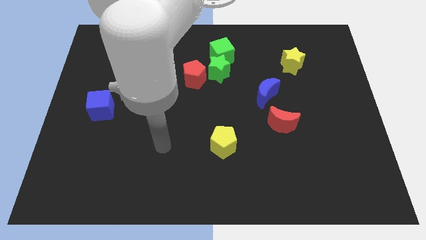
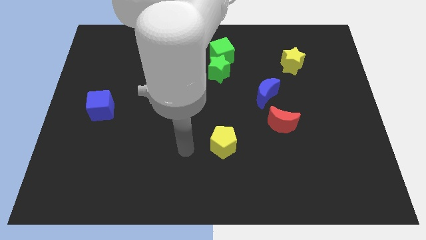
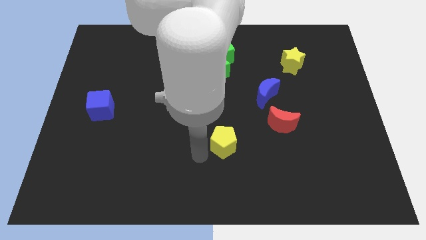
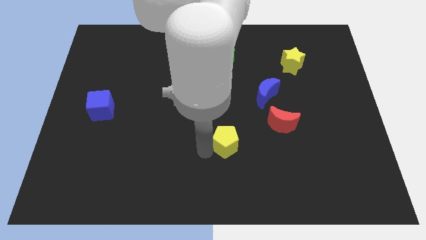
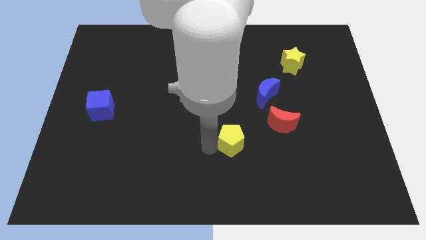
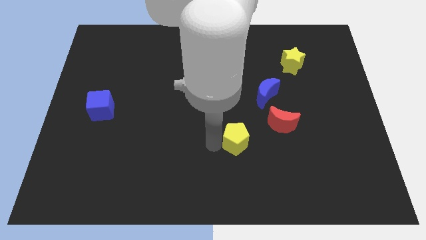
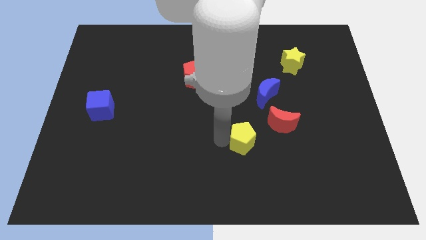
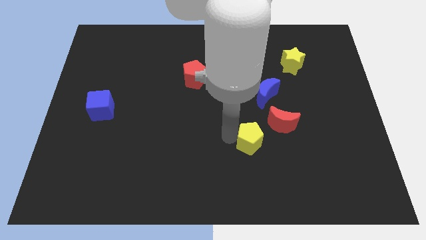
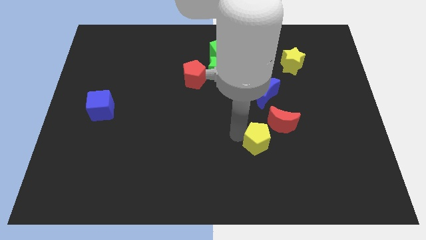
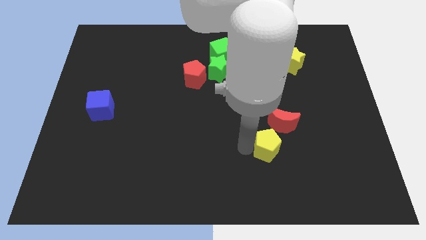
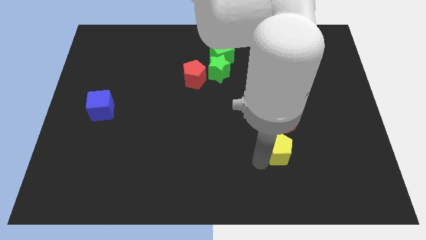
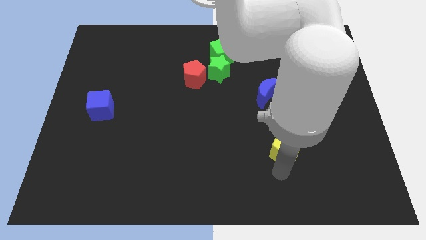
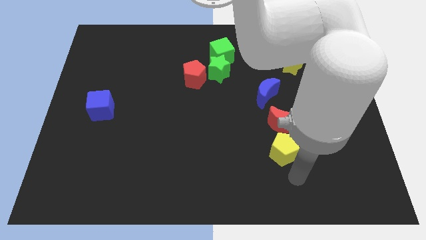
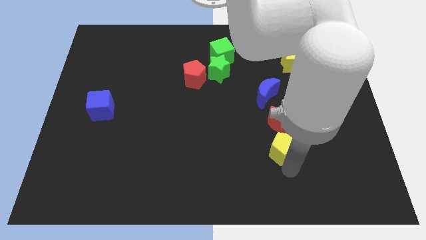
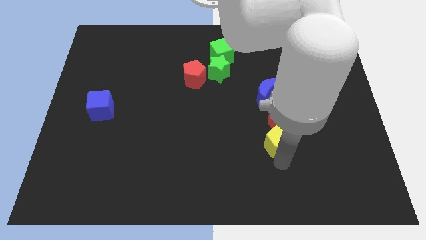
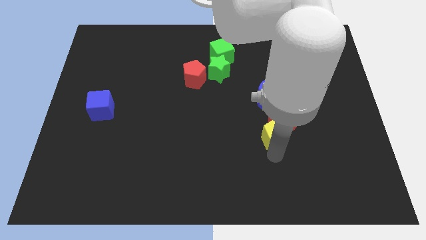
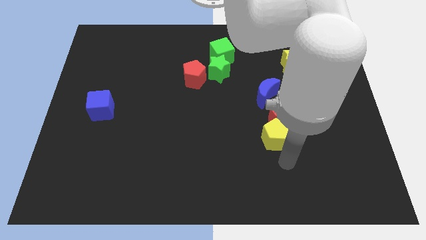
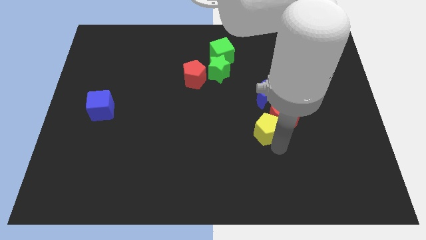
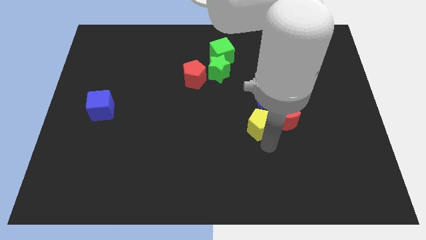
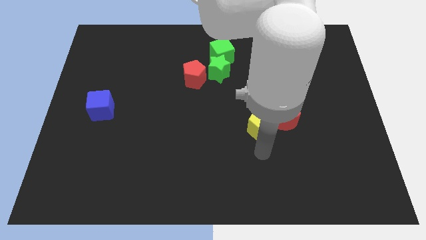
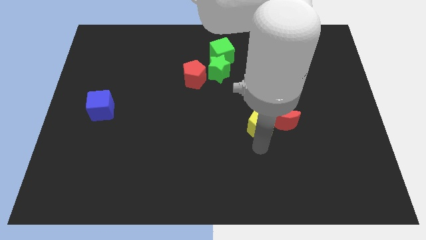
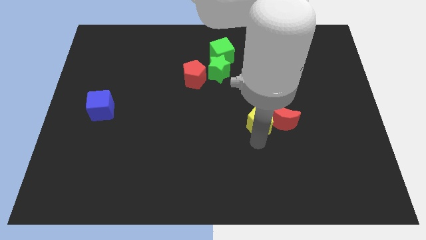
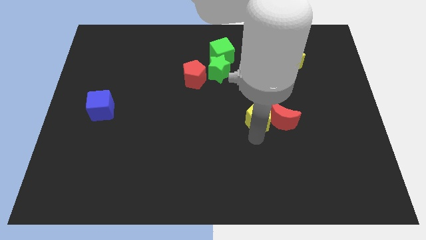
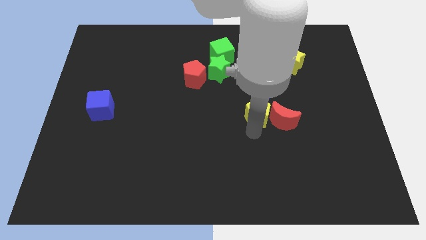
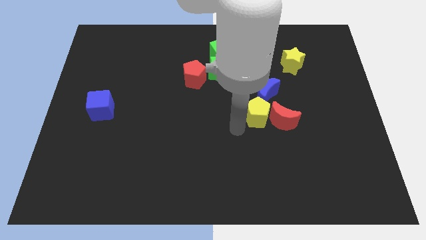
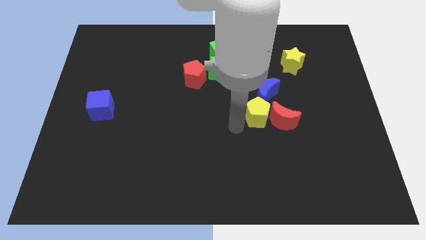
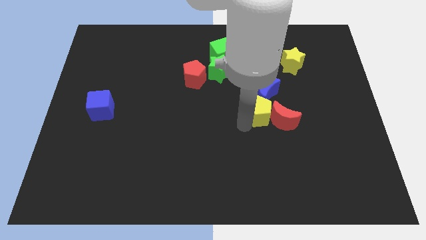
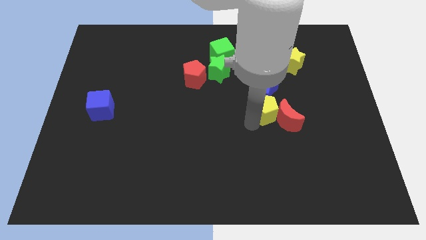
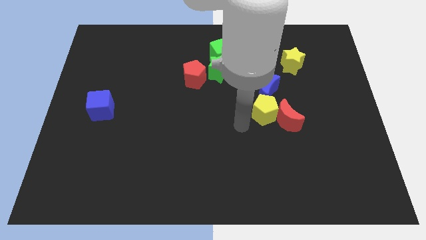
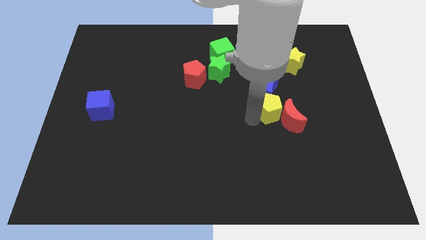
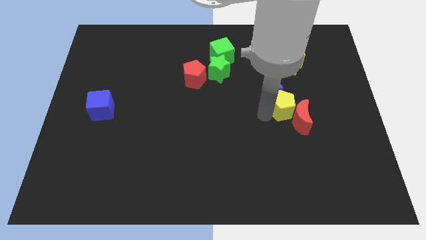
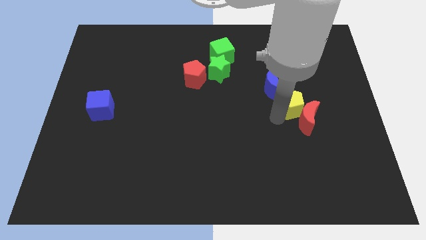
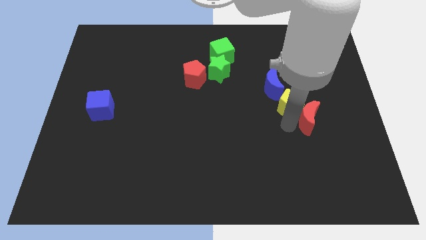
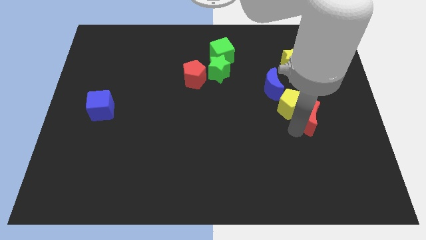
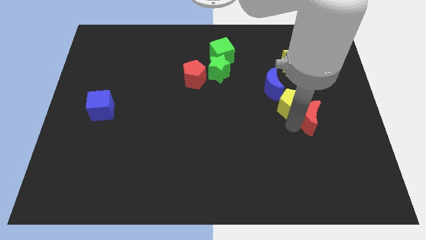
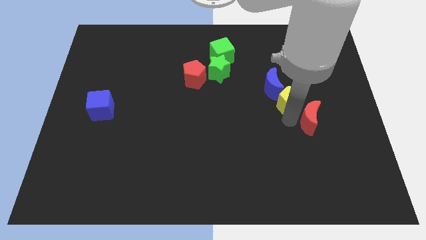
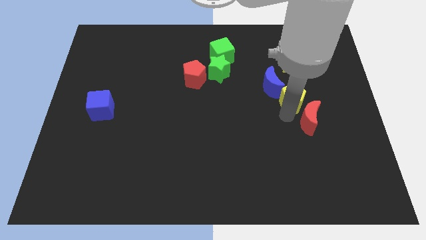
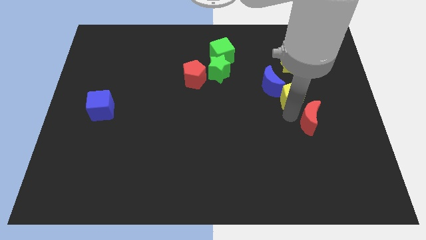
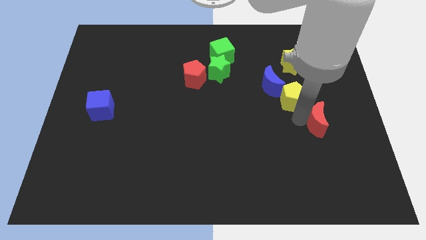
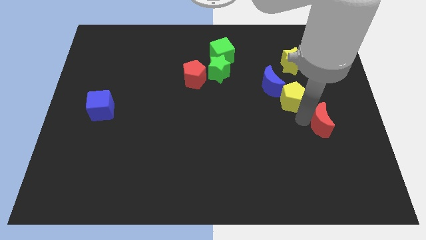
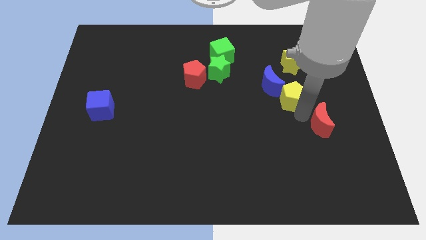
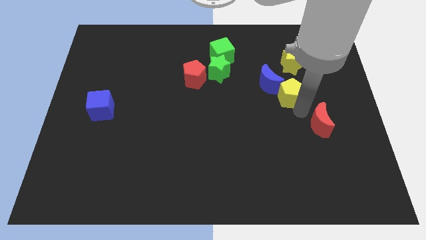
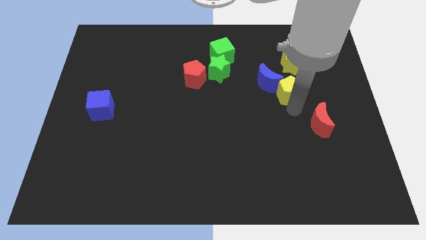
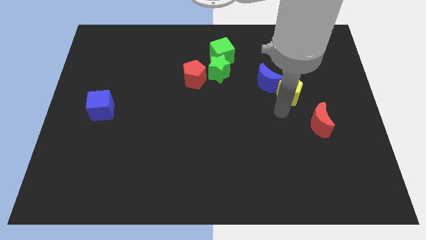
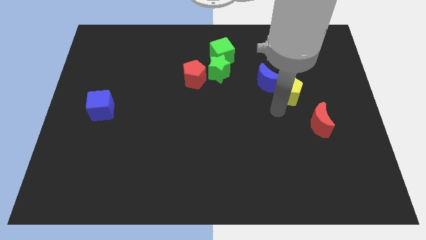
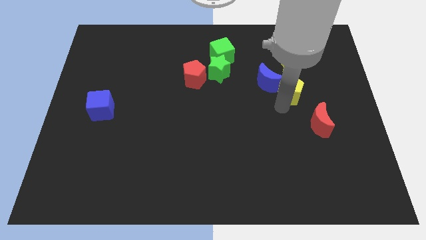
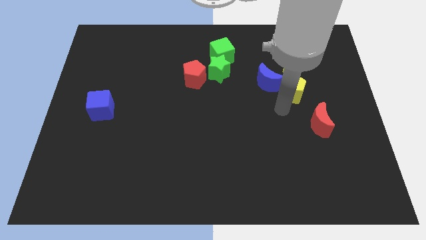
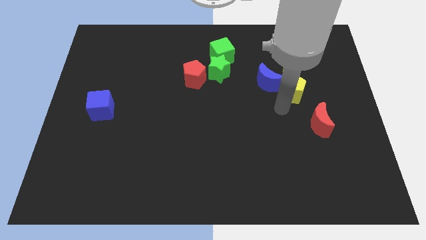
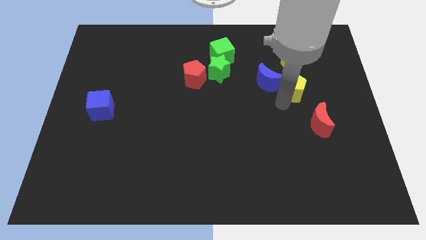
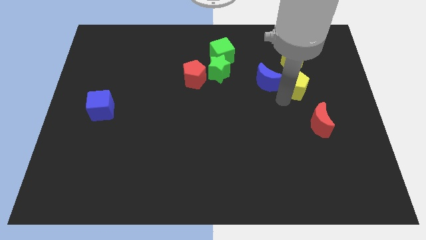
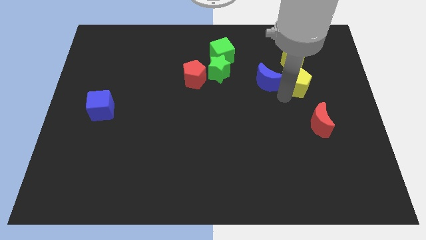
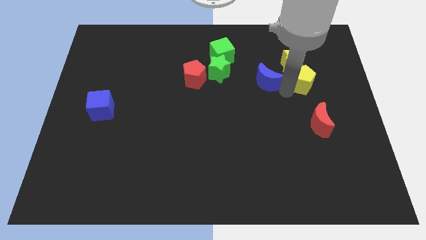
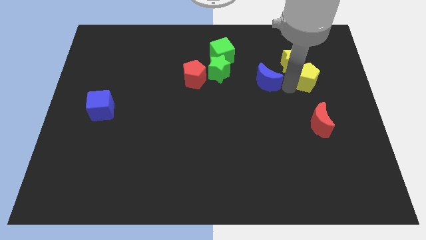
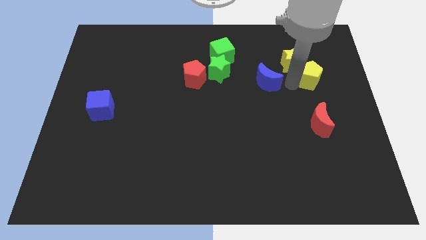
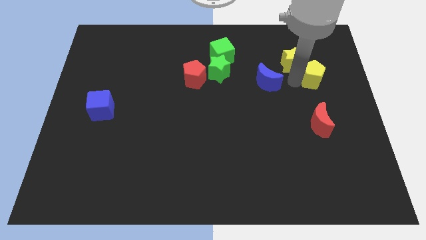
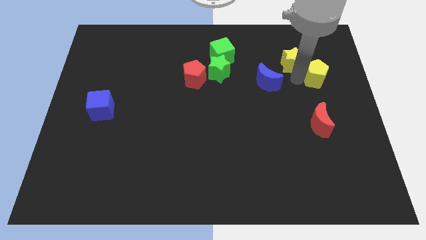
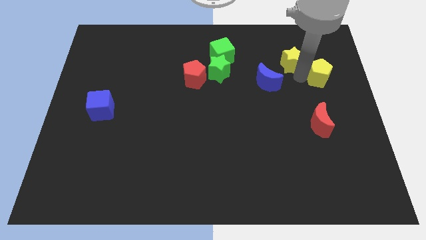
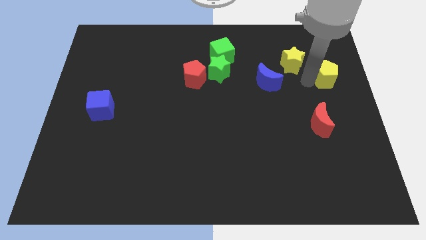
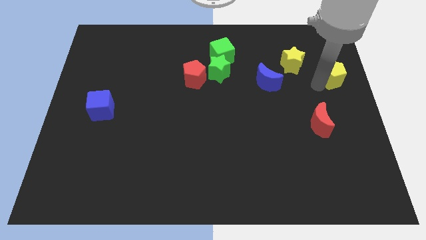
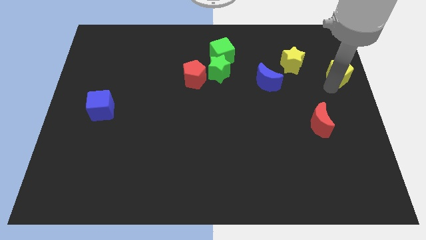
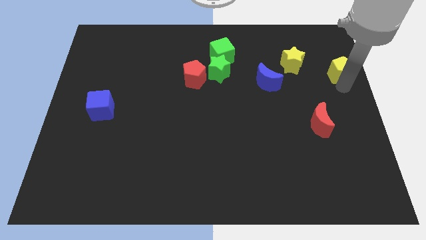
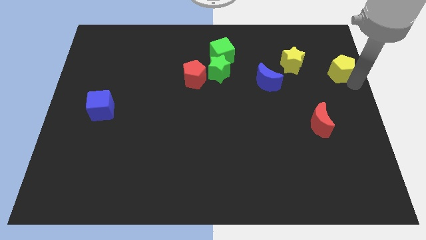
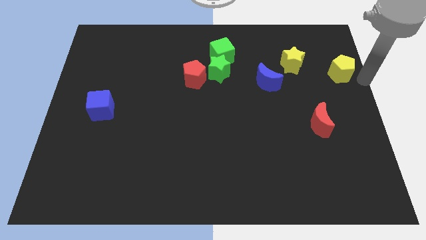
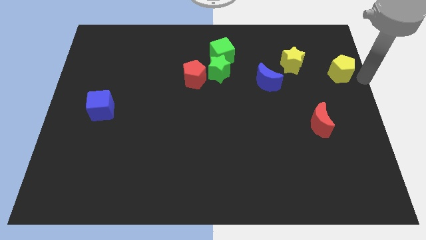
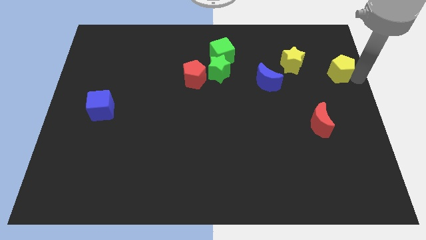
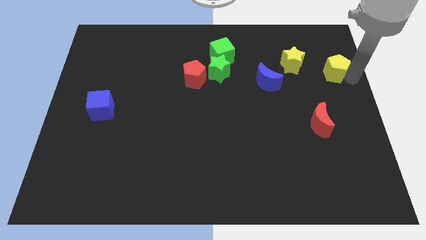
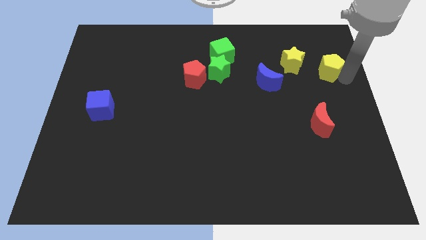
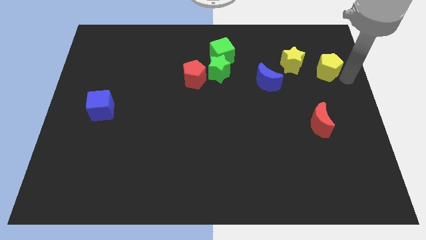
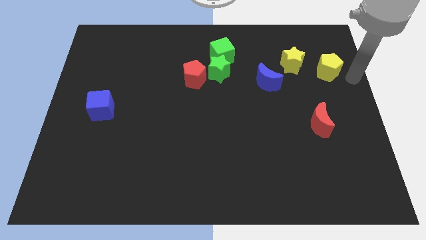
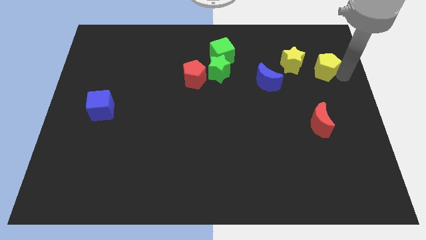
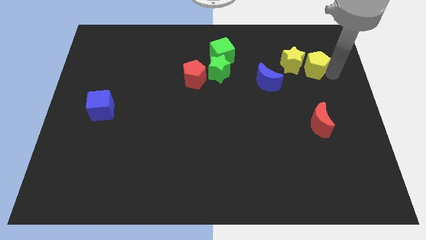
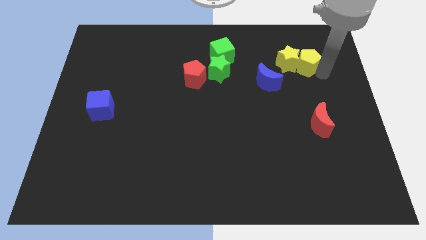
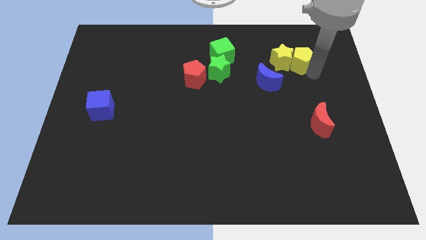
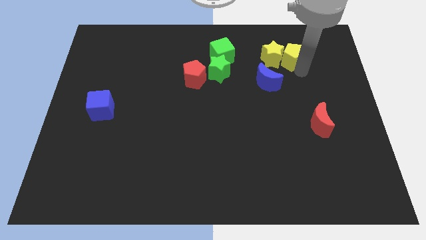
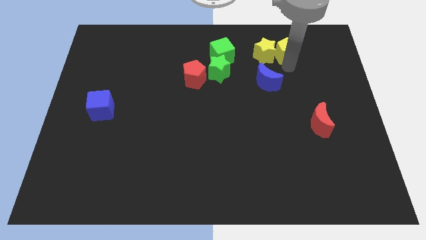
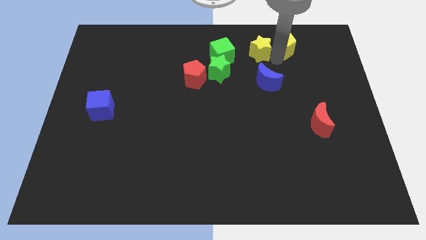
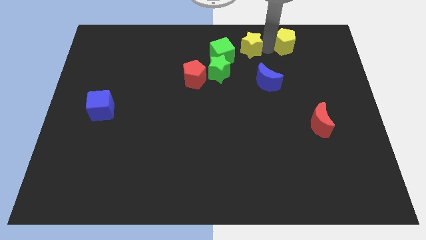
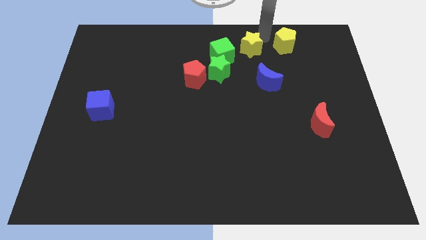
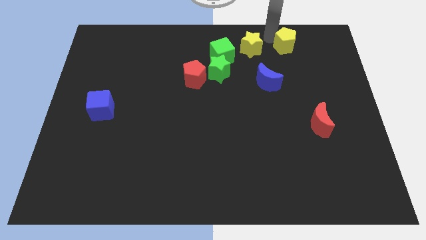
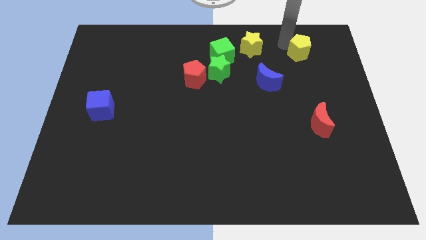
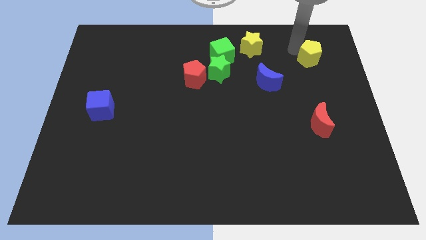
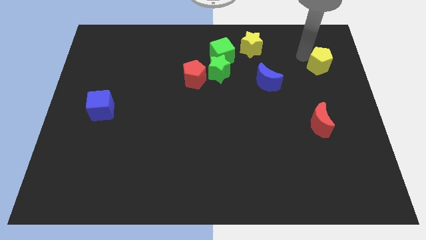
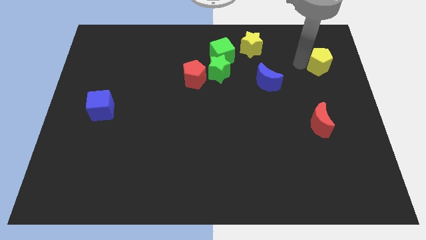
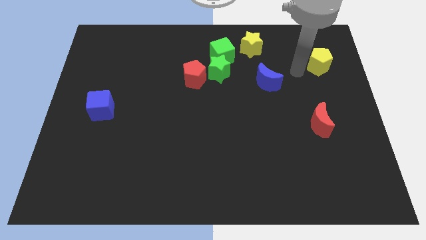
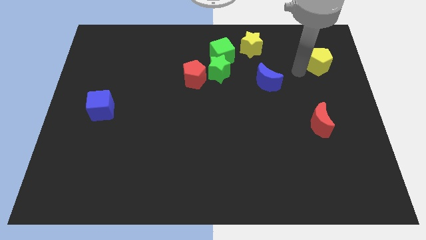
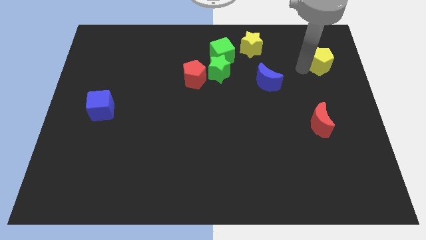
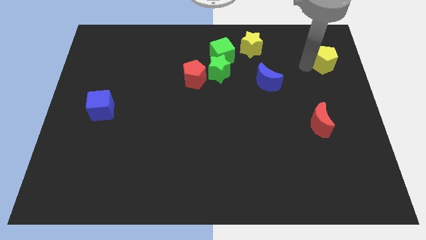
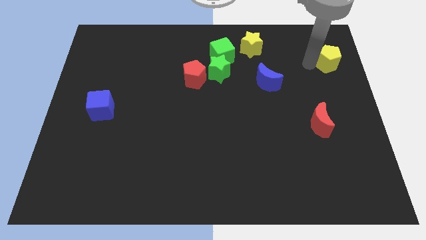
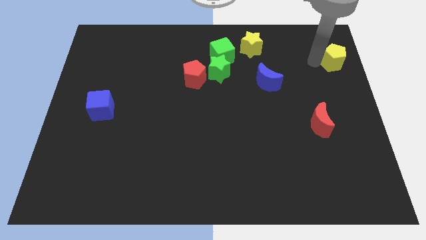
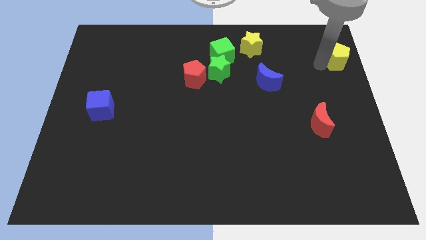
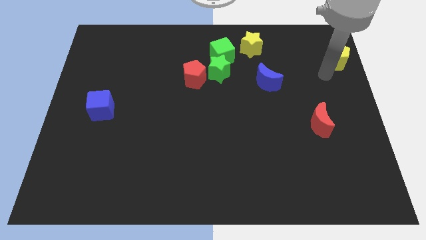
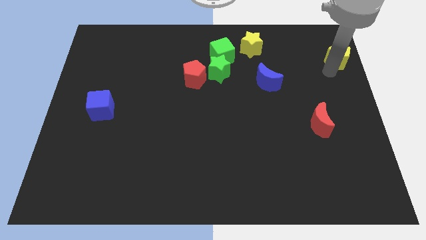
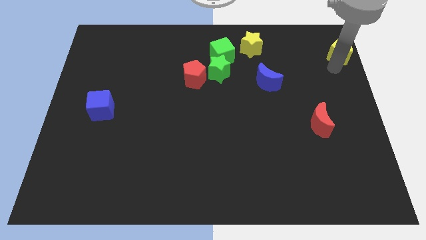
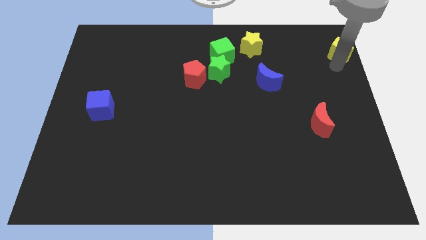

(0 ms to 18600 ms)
put the yellow pentagon to the top right of the board
